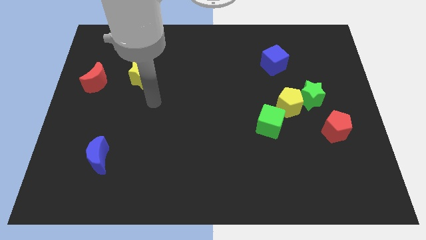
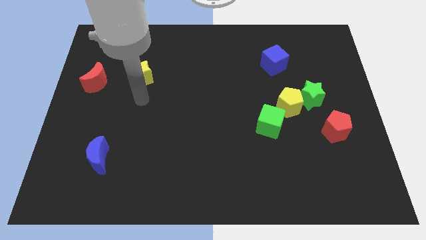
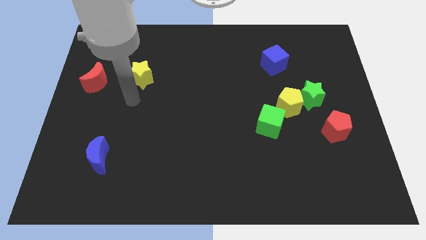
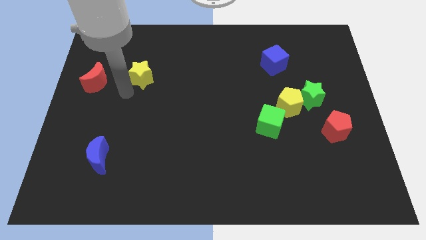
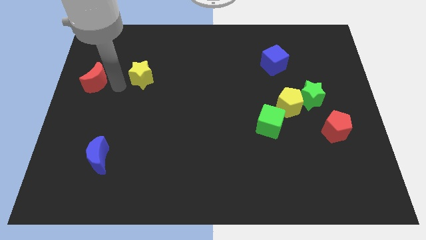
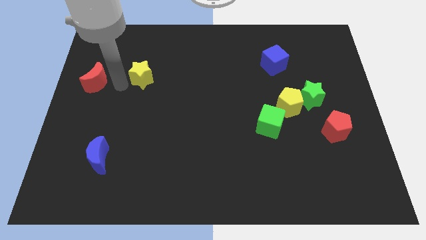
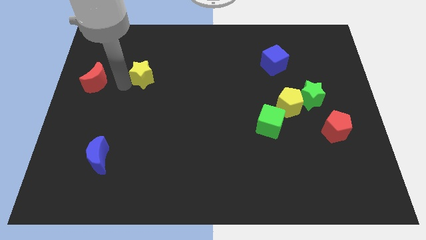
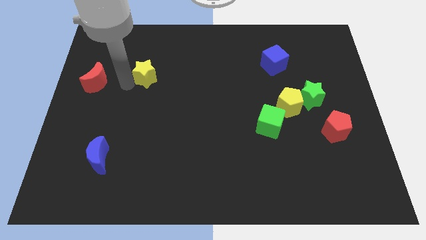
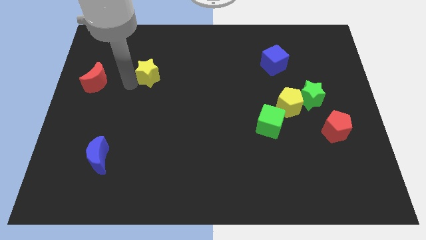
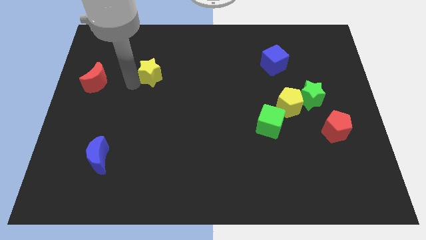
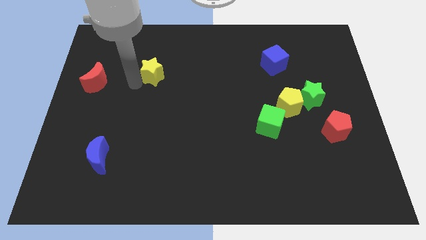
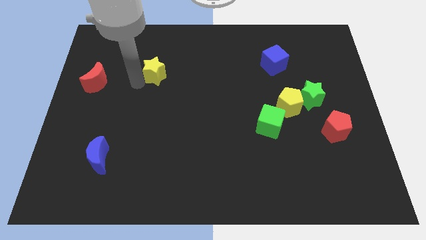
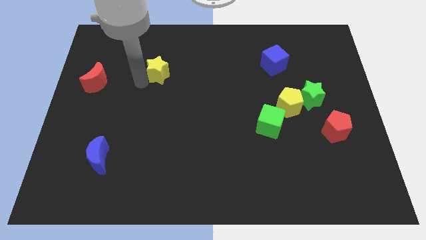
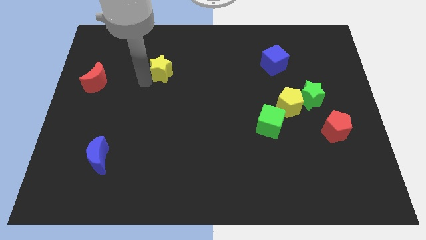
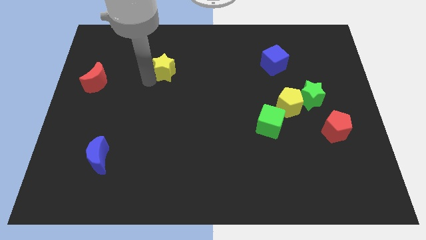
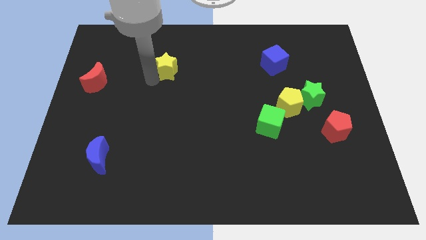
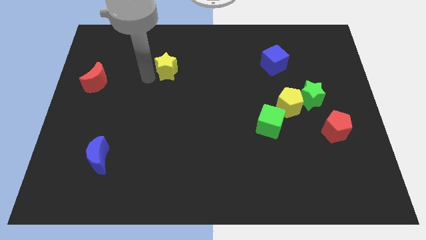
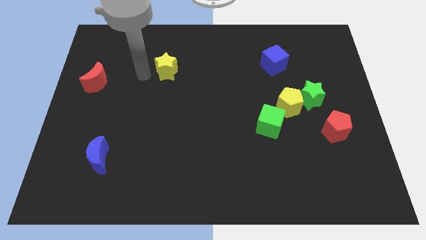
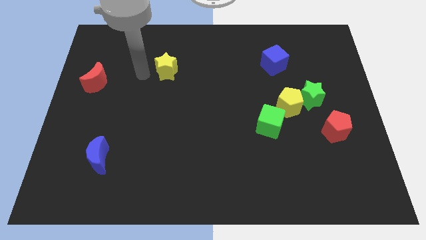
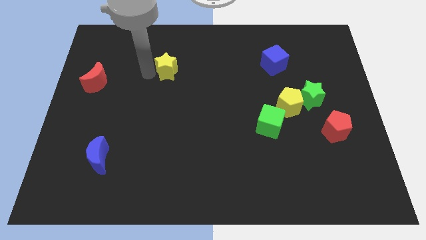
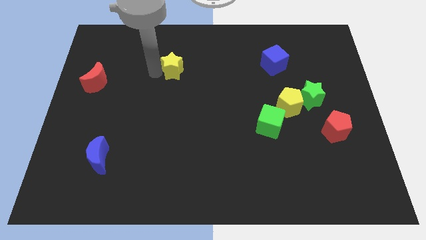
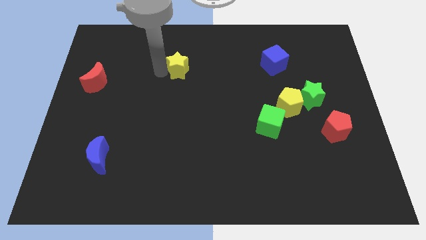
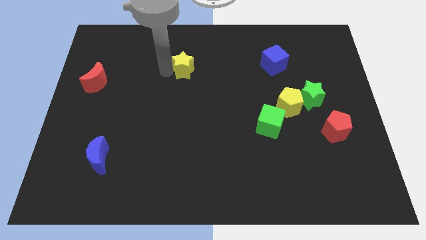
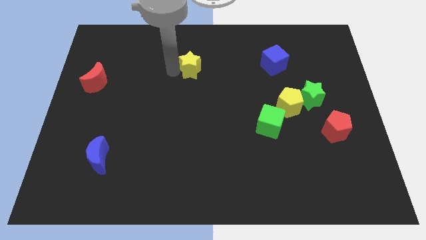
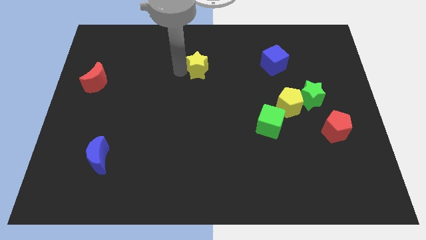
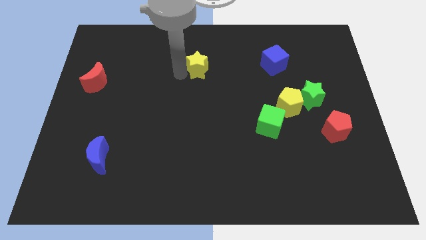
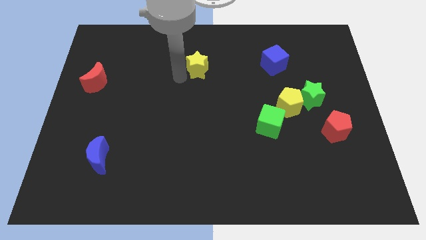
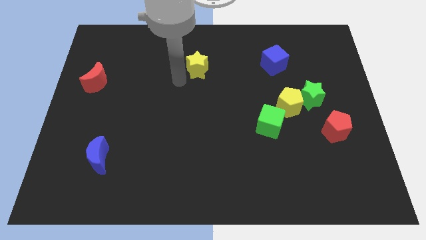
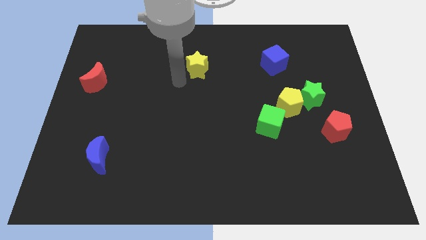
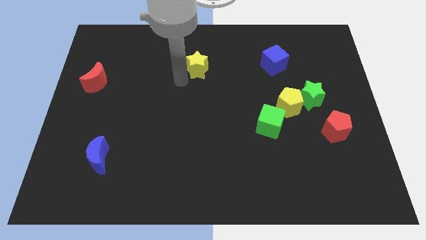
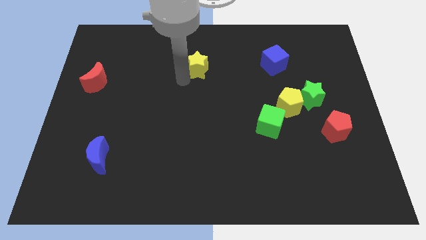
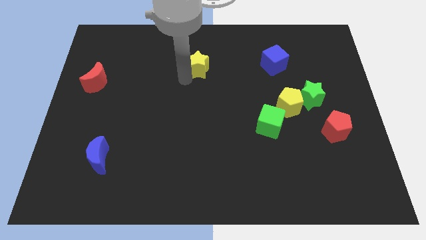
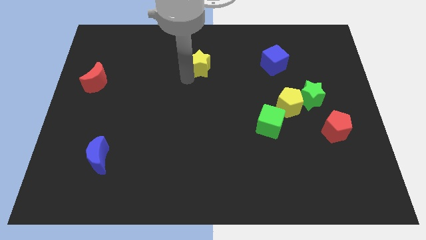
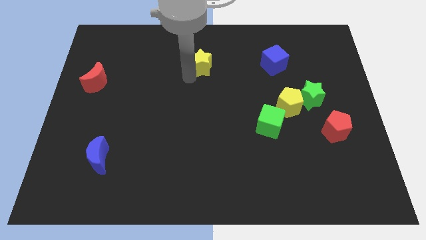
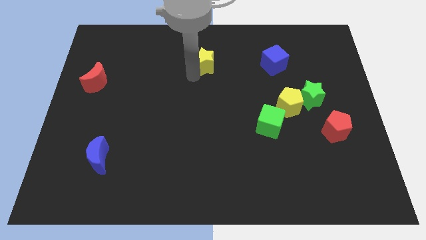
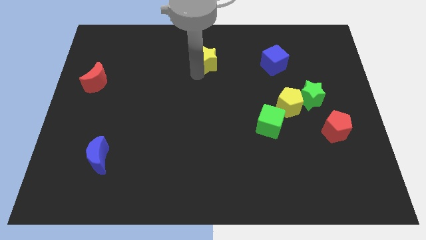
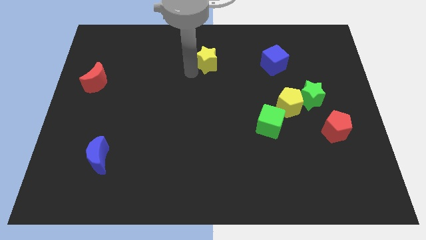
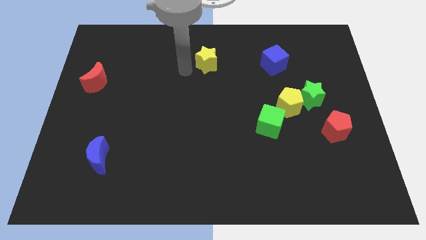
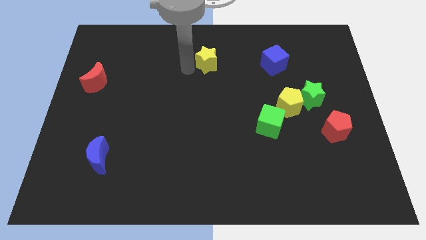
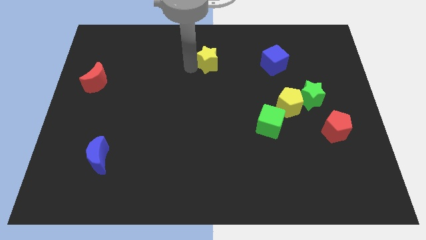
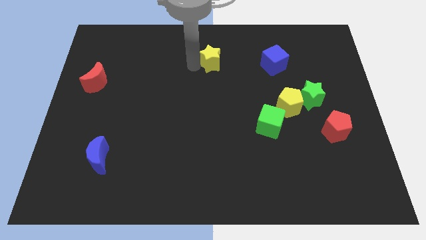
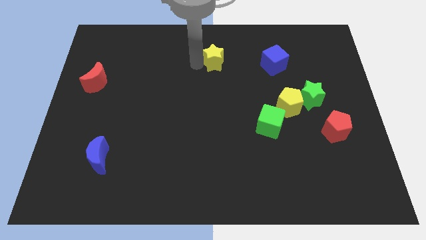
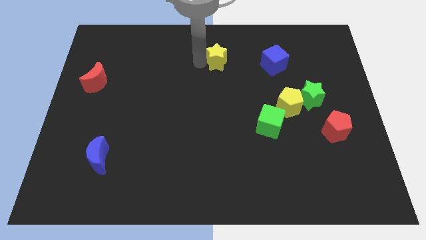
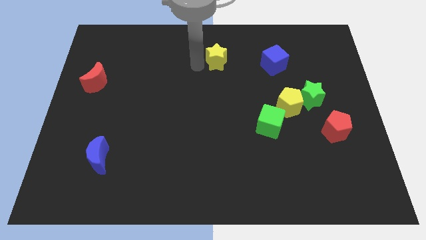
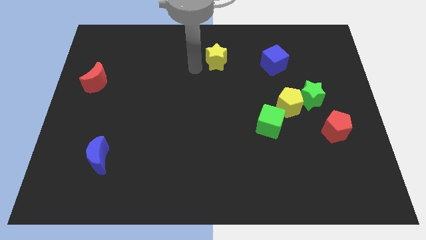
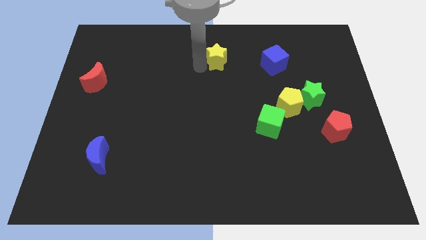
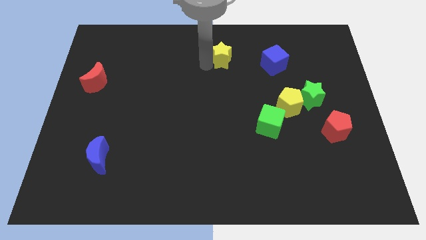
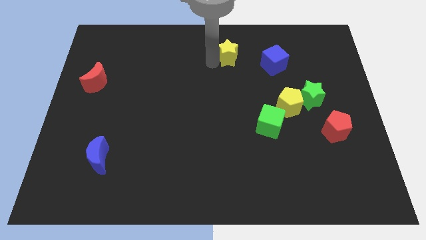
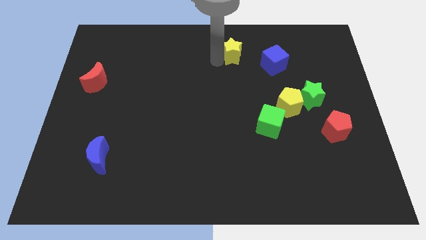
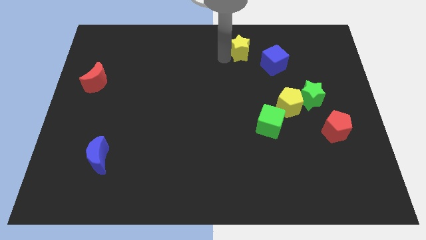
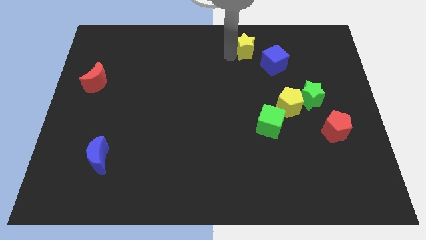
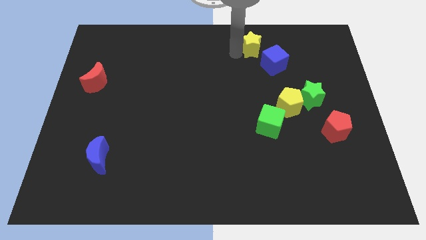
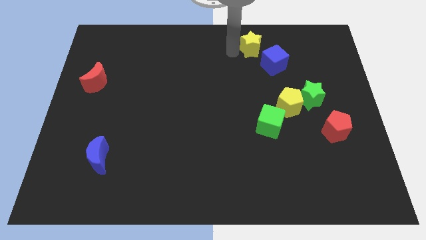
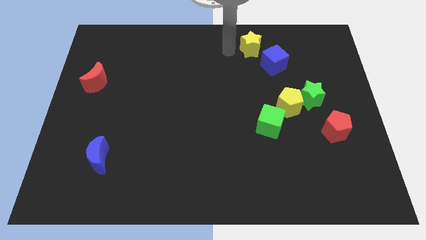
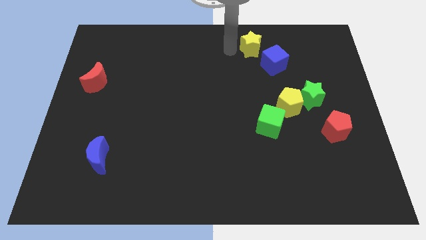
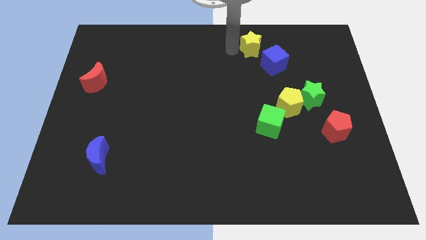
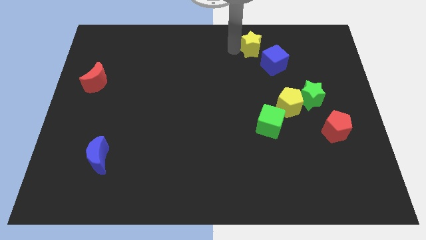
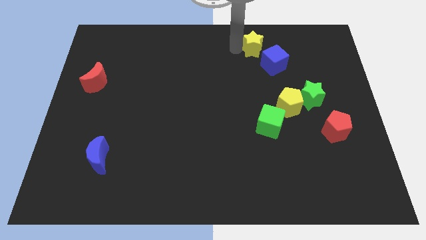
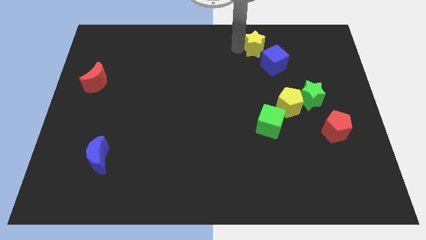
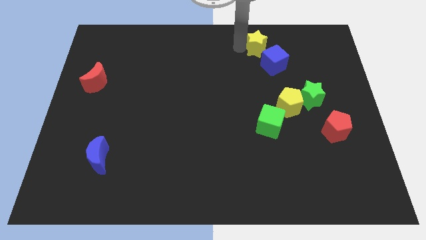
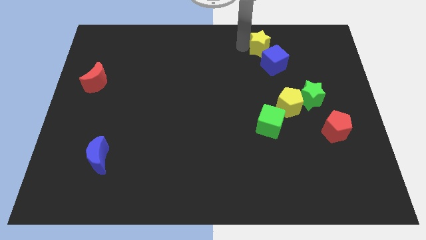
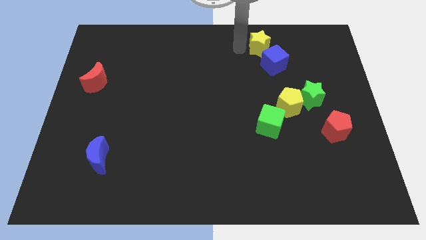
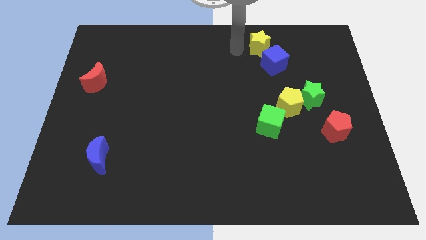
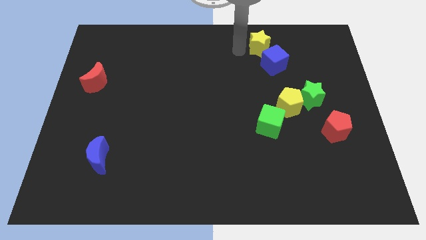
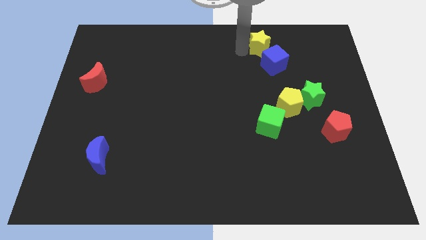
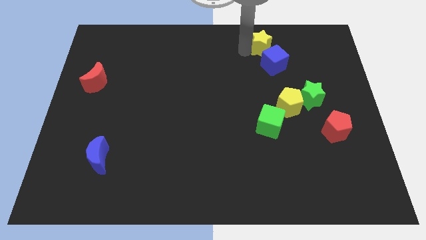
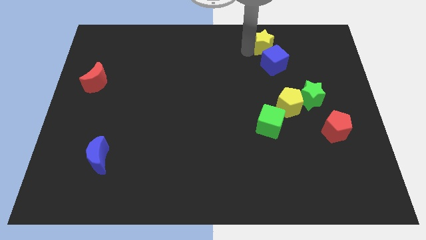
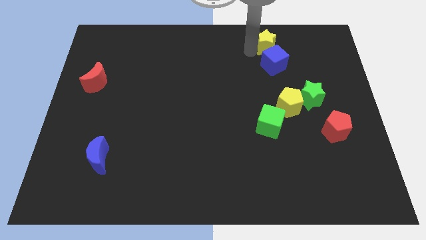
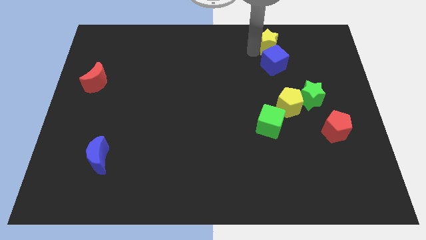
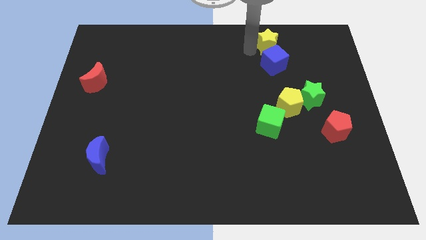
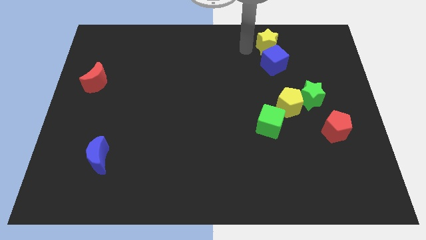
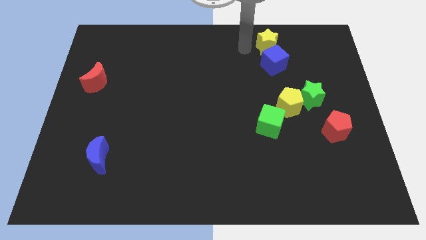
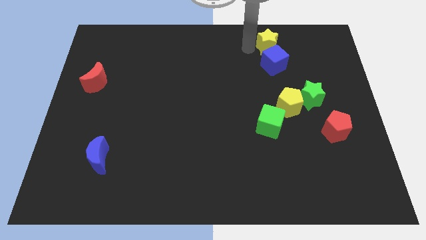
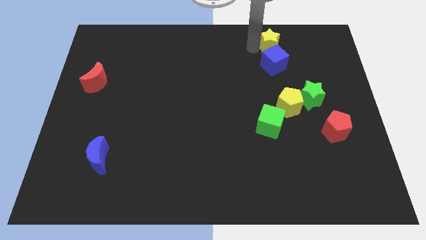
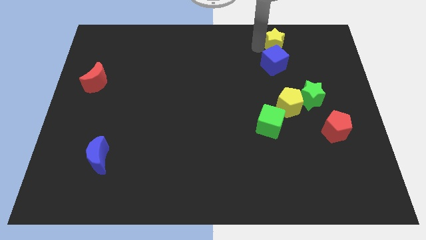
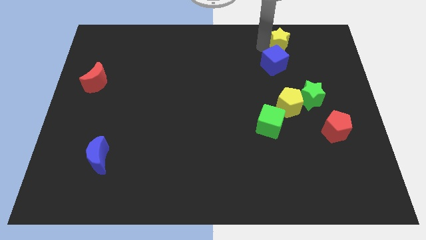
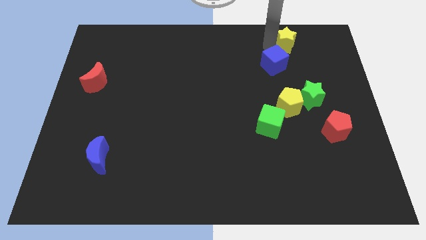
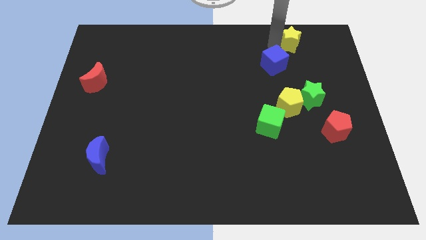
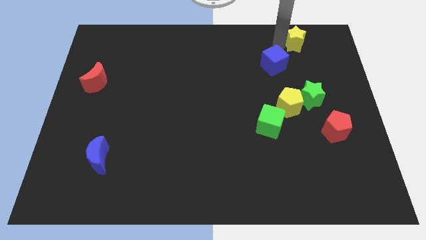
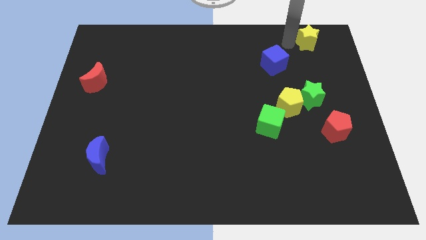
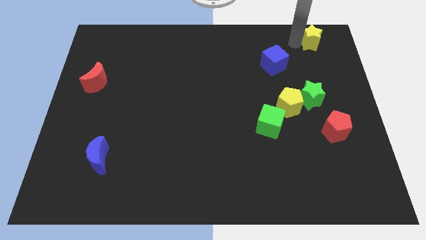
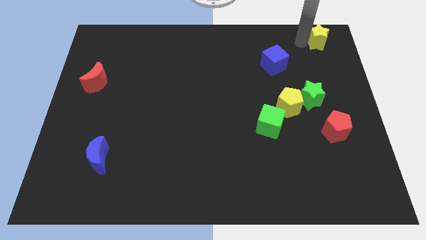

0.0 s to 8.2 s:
put the yellow star to the top right corner
